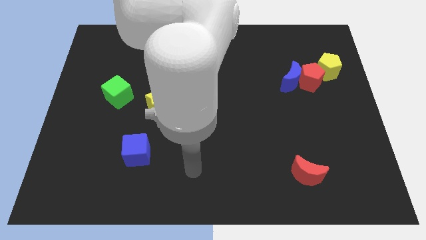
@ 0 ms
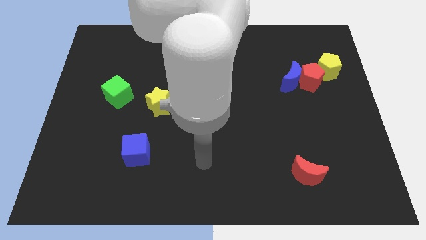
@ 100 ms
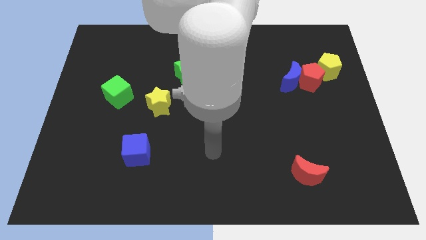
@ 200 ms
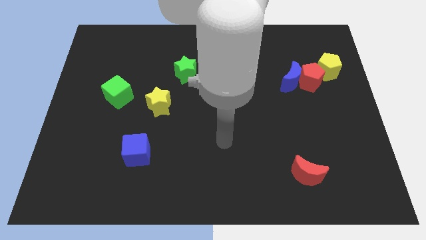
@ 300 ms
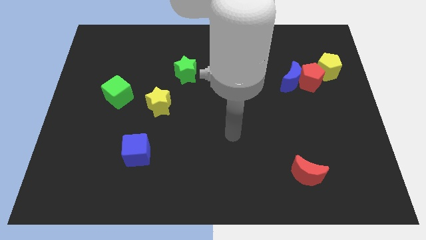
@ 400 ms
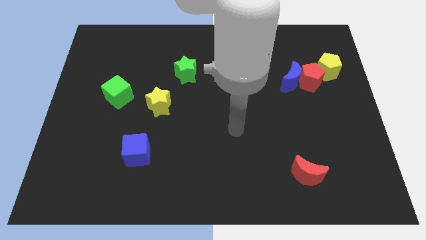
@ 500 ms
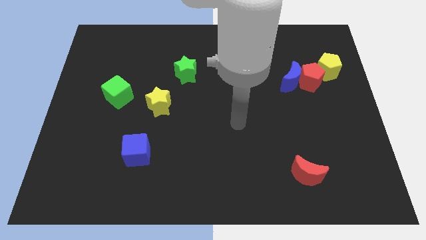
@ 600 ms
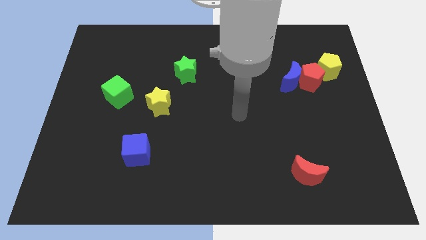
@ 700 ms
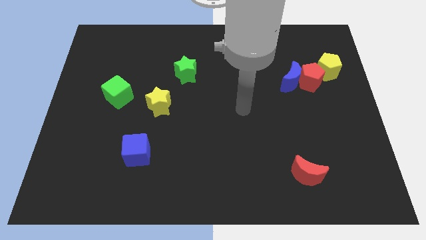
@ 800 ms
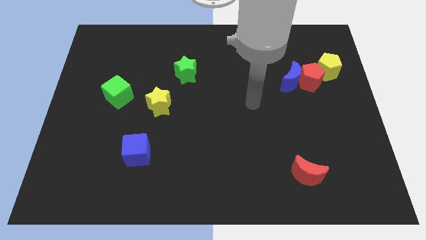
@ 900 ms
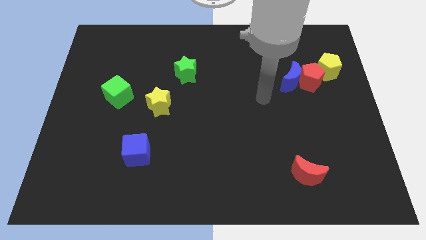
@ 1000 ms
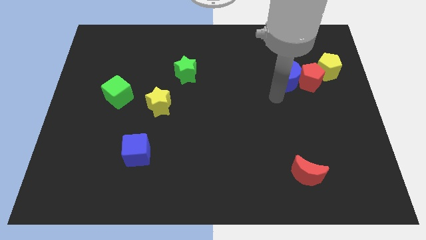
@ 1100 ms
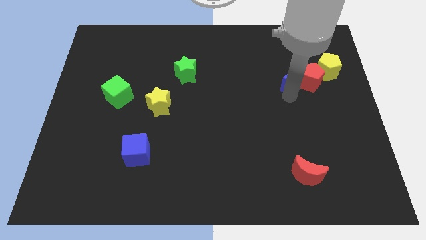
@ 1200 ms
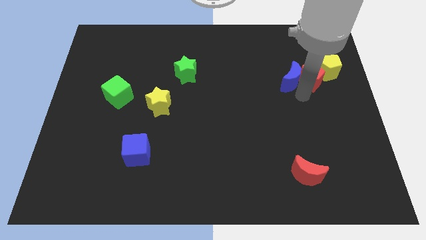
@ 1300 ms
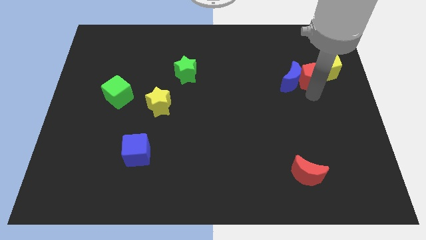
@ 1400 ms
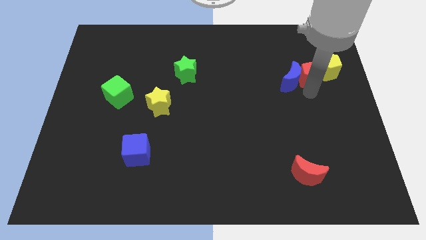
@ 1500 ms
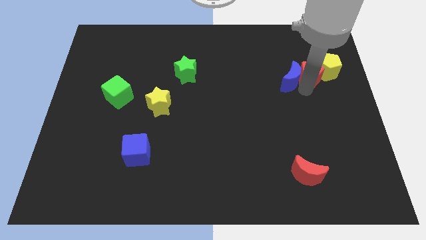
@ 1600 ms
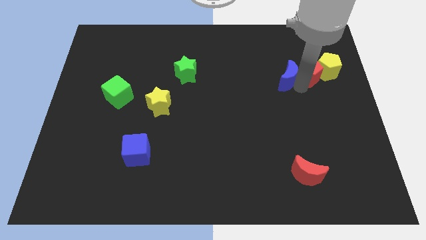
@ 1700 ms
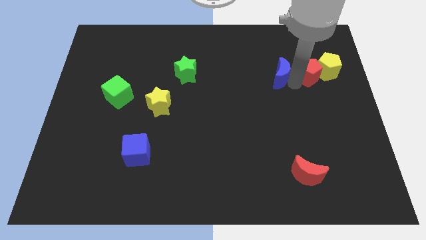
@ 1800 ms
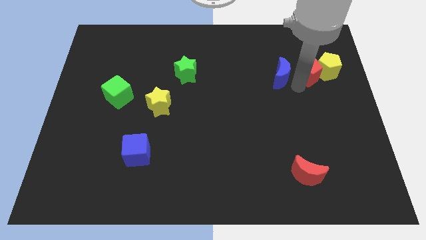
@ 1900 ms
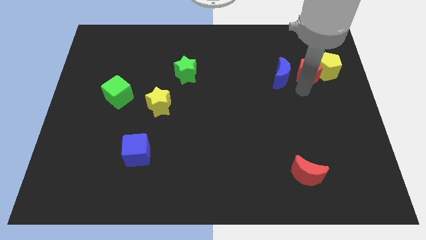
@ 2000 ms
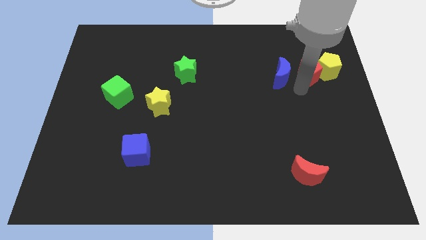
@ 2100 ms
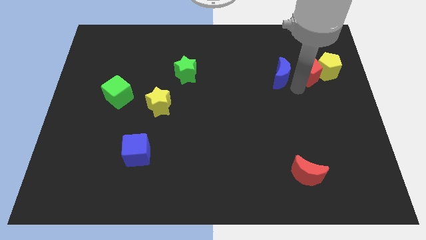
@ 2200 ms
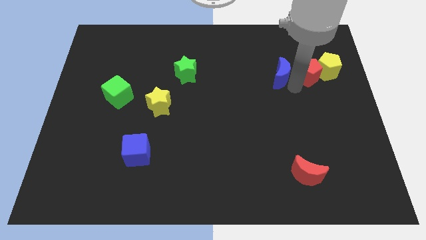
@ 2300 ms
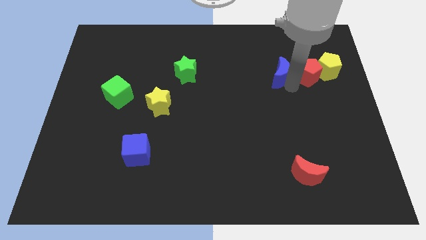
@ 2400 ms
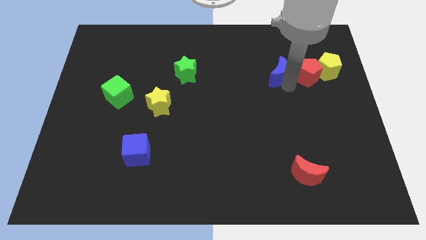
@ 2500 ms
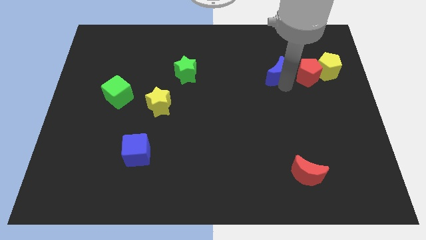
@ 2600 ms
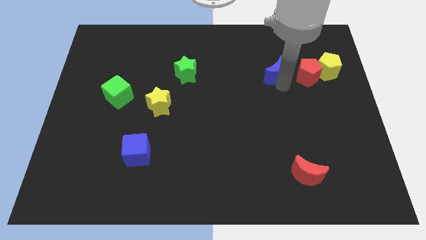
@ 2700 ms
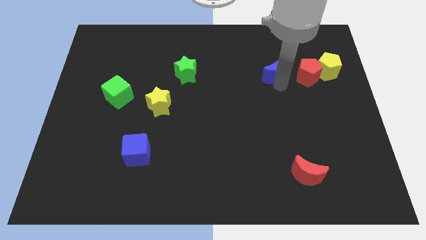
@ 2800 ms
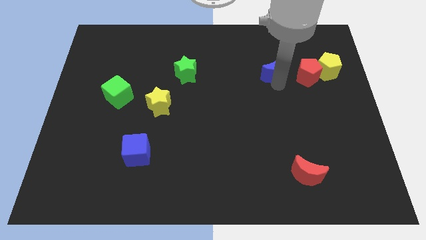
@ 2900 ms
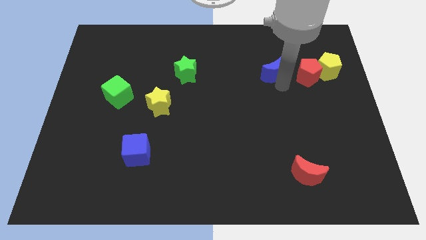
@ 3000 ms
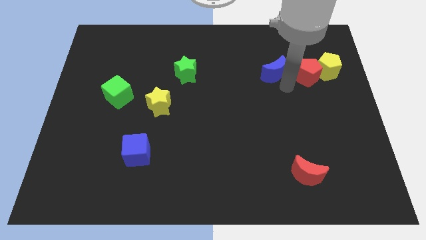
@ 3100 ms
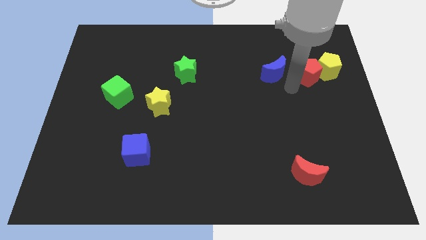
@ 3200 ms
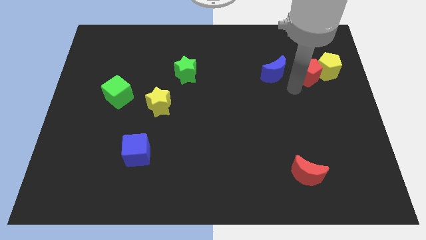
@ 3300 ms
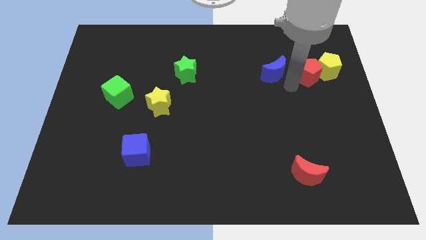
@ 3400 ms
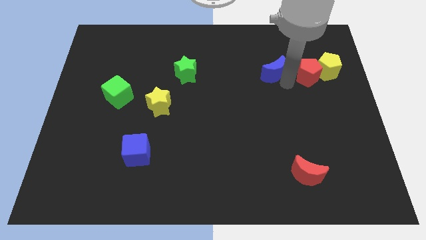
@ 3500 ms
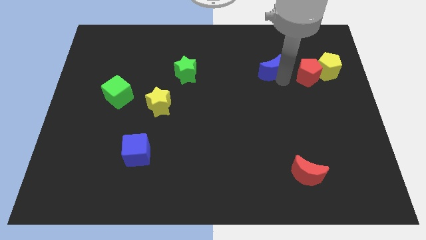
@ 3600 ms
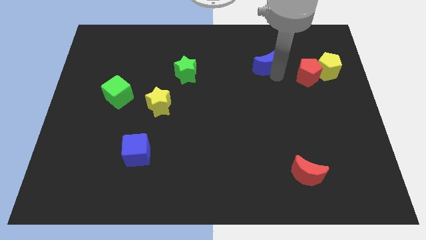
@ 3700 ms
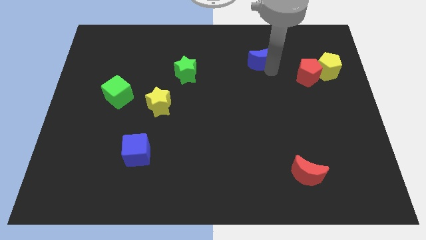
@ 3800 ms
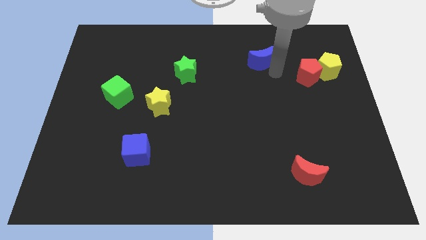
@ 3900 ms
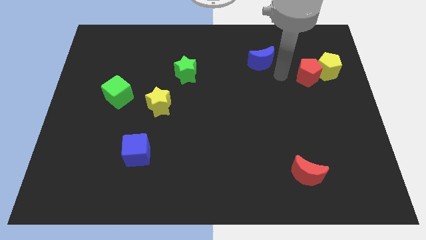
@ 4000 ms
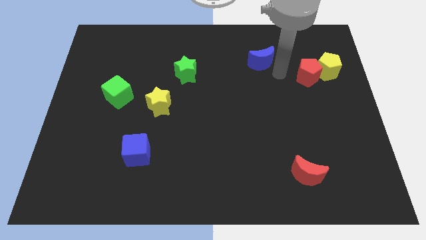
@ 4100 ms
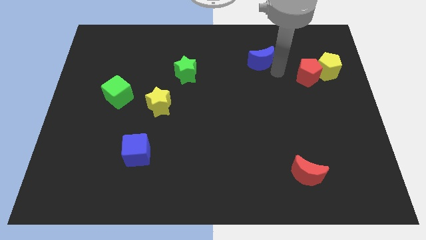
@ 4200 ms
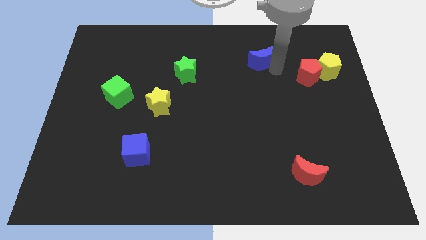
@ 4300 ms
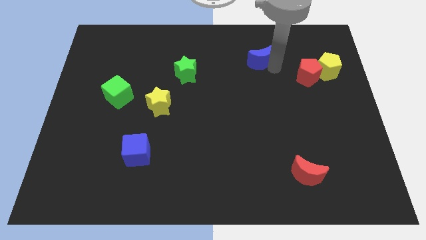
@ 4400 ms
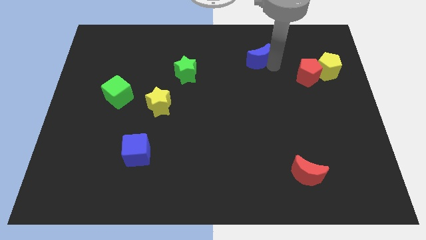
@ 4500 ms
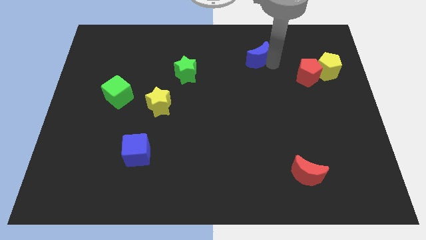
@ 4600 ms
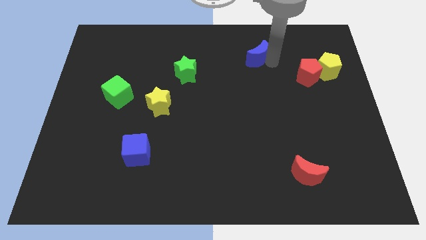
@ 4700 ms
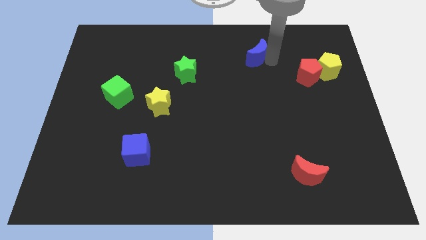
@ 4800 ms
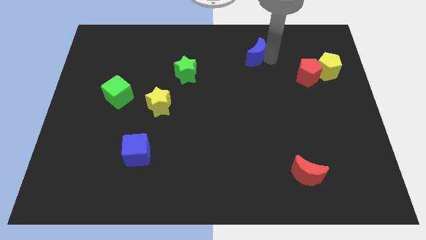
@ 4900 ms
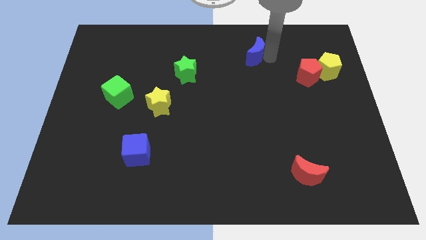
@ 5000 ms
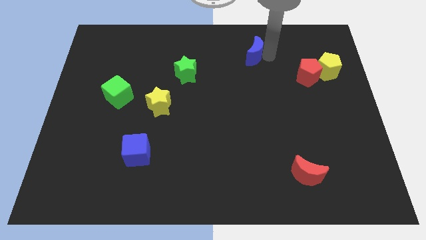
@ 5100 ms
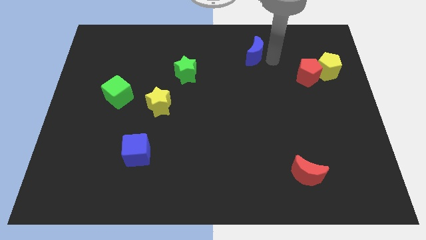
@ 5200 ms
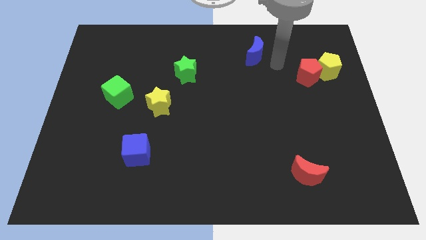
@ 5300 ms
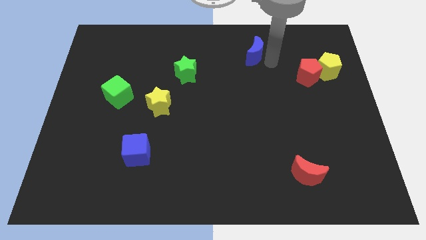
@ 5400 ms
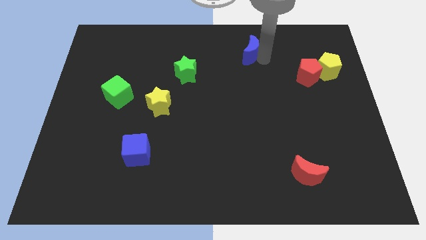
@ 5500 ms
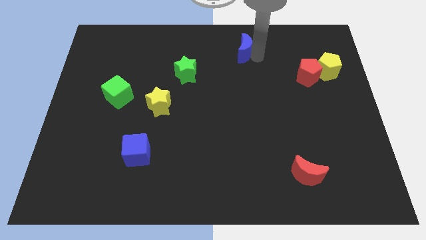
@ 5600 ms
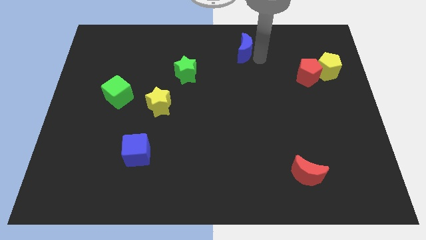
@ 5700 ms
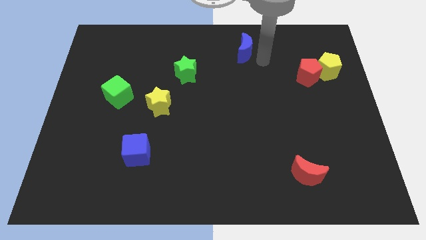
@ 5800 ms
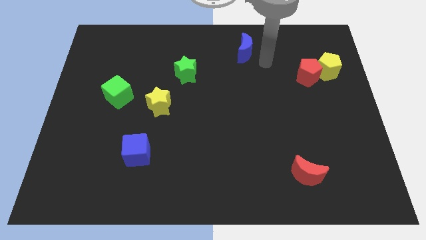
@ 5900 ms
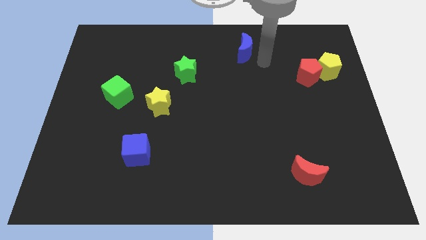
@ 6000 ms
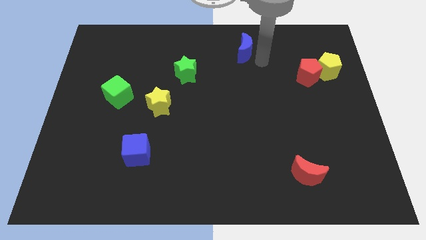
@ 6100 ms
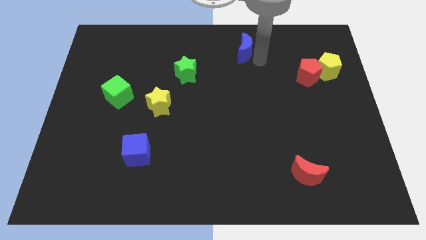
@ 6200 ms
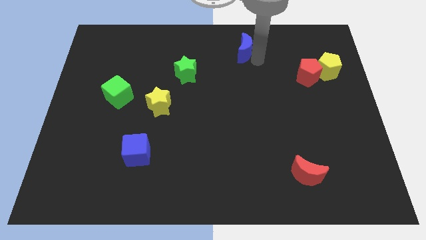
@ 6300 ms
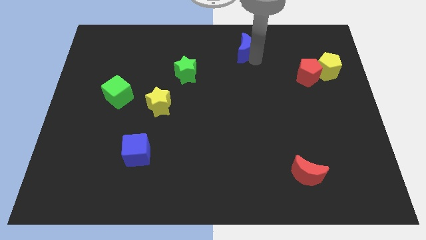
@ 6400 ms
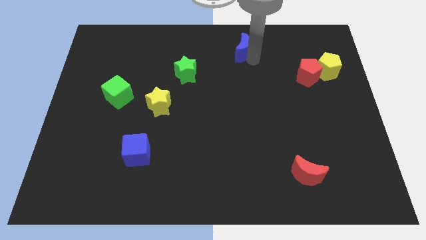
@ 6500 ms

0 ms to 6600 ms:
push the blue moon to the top
